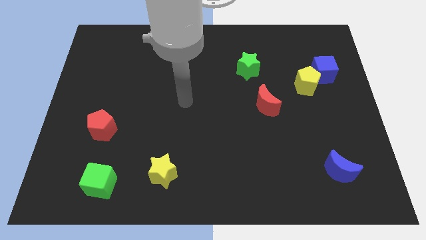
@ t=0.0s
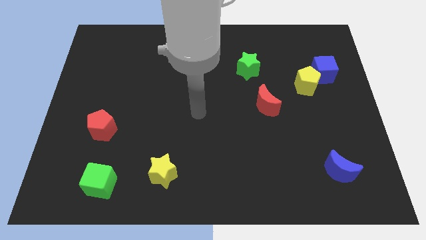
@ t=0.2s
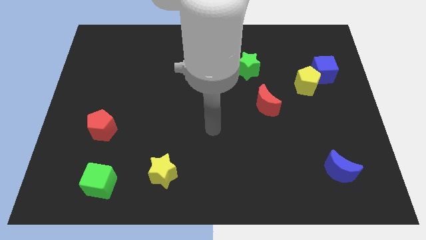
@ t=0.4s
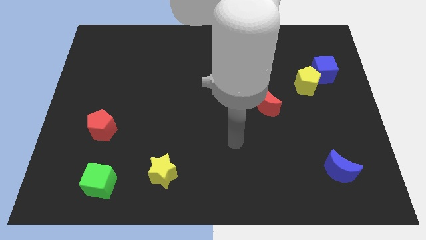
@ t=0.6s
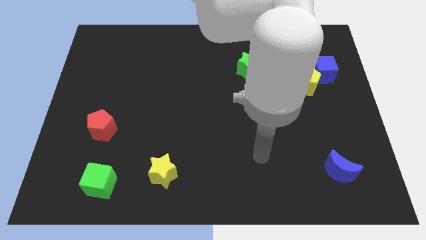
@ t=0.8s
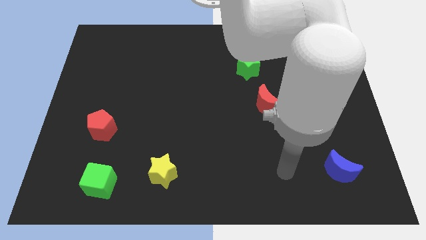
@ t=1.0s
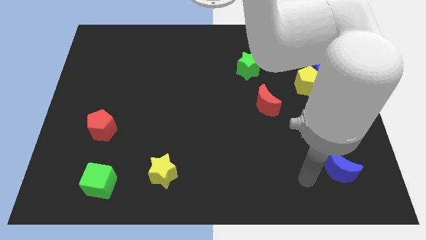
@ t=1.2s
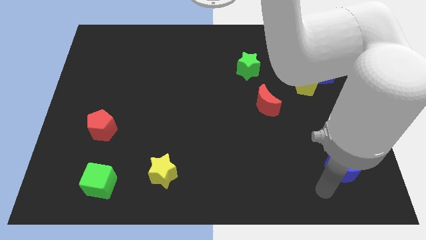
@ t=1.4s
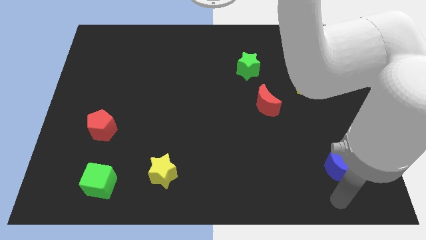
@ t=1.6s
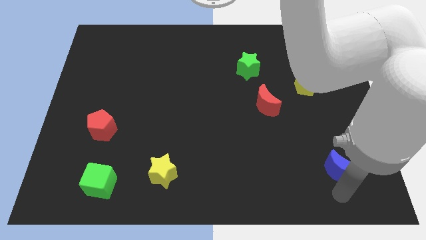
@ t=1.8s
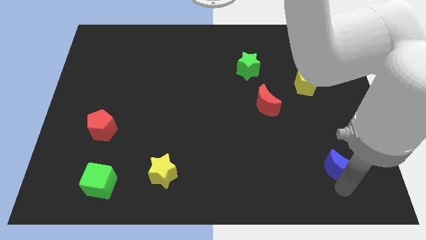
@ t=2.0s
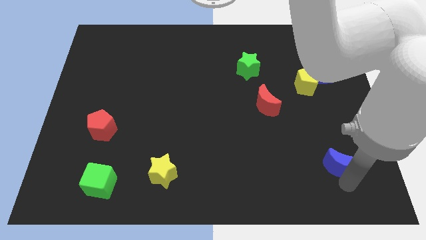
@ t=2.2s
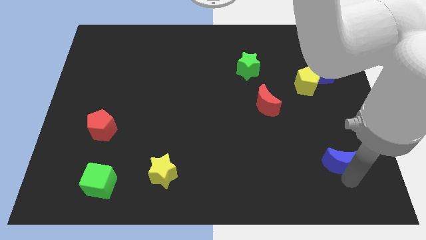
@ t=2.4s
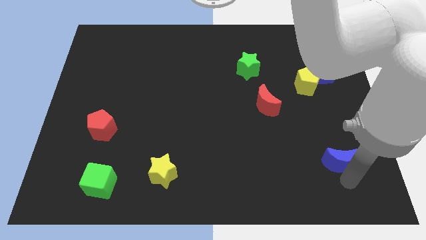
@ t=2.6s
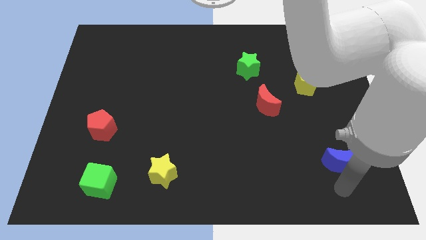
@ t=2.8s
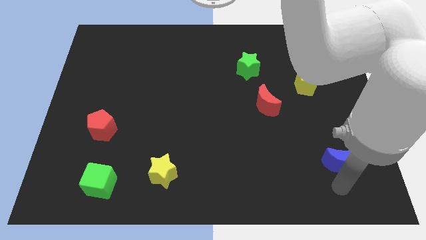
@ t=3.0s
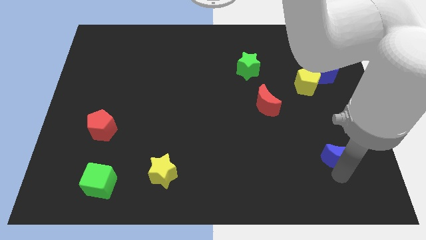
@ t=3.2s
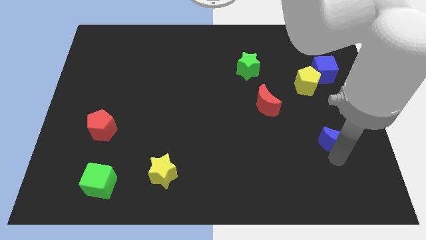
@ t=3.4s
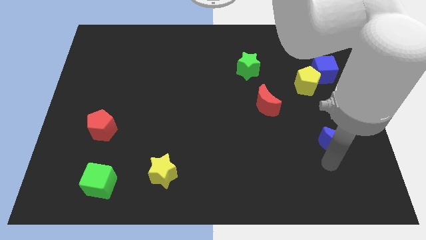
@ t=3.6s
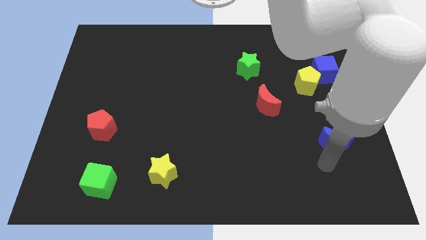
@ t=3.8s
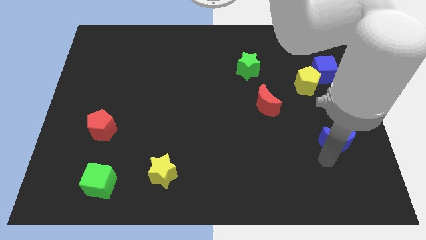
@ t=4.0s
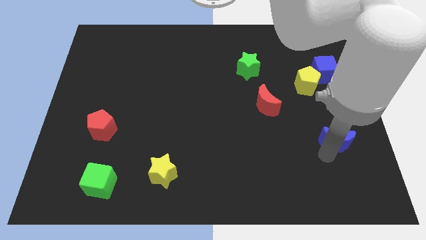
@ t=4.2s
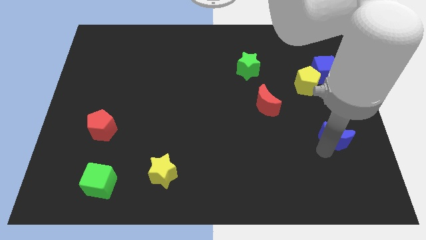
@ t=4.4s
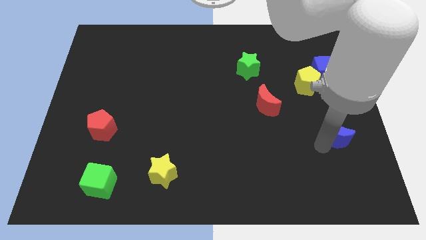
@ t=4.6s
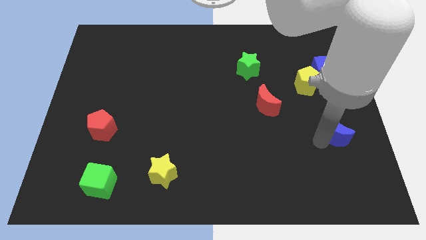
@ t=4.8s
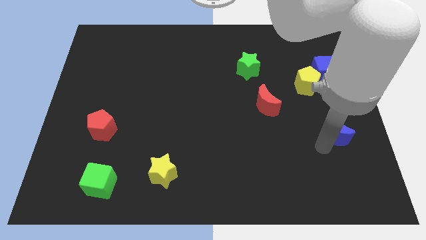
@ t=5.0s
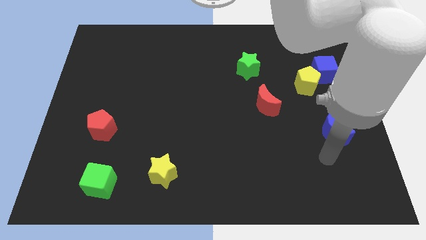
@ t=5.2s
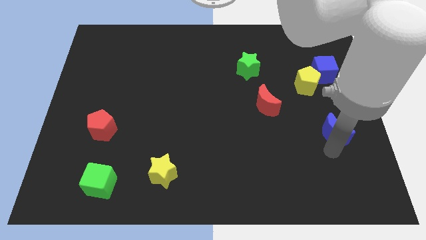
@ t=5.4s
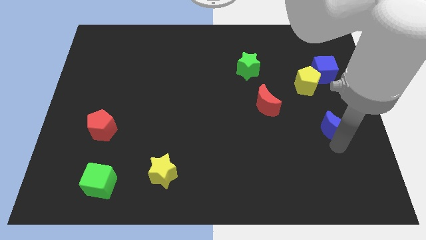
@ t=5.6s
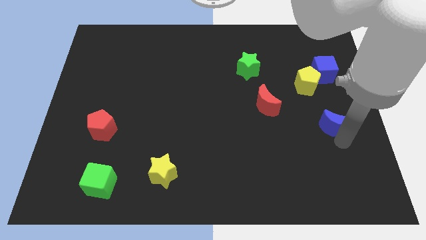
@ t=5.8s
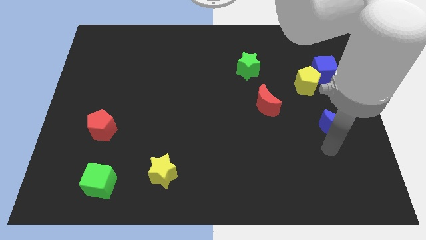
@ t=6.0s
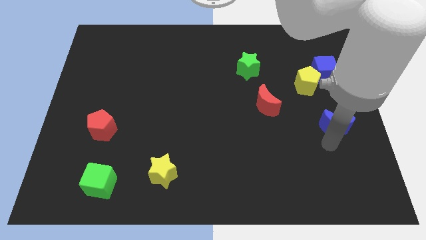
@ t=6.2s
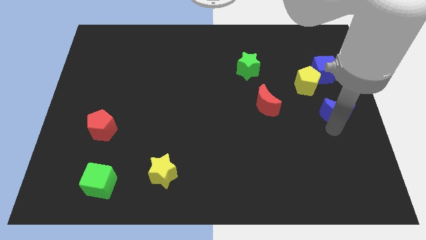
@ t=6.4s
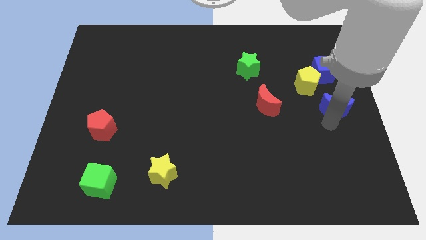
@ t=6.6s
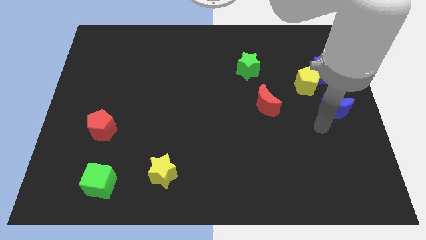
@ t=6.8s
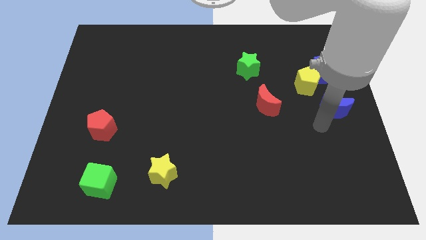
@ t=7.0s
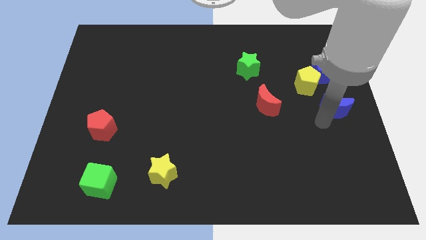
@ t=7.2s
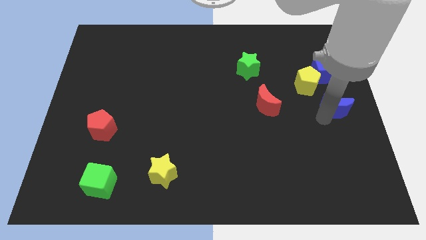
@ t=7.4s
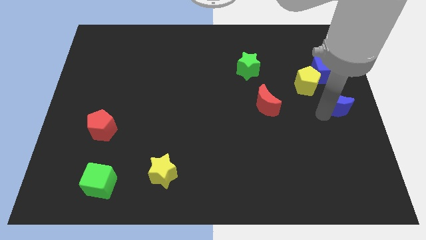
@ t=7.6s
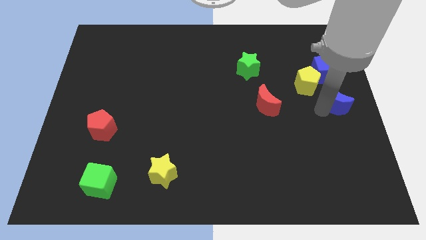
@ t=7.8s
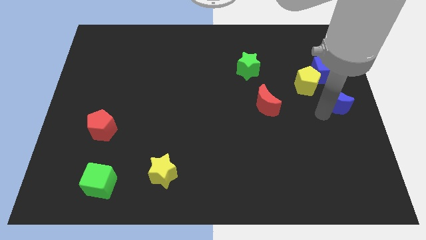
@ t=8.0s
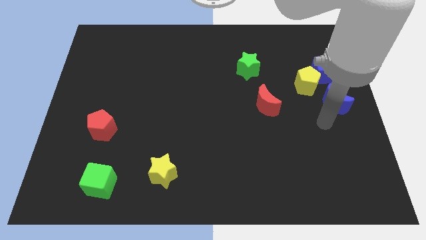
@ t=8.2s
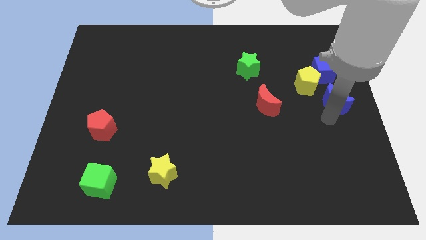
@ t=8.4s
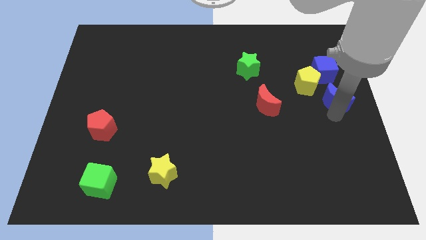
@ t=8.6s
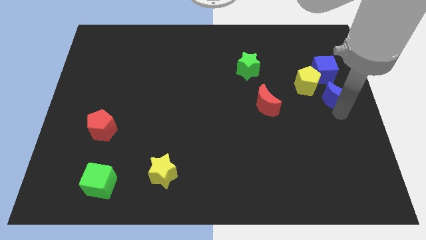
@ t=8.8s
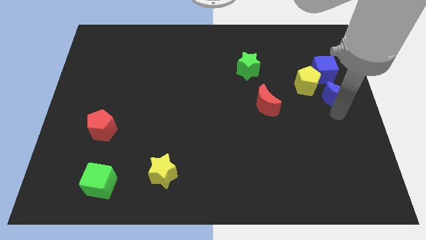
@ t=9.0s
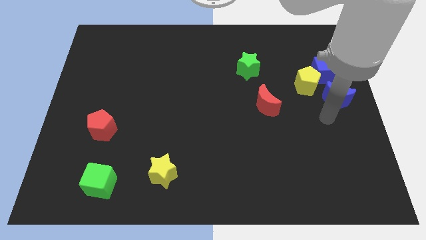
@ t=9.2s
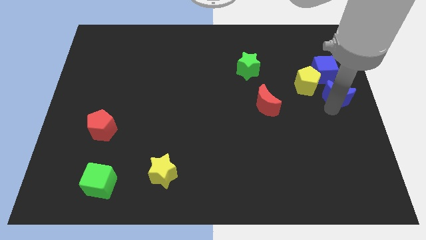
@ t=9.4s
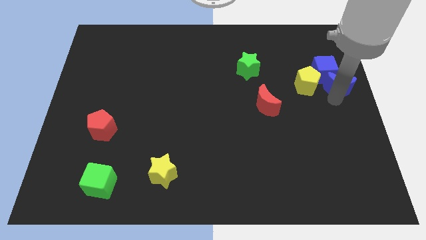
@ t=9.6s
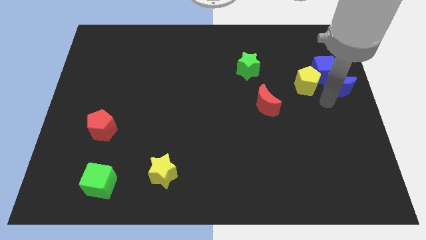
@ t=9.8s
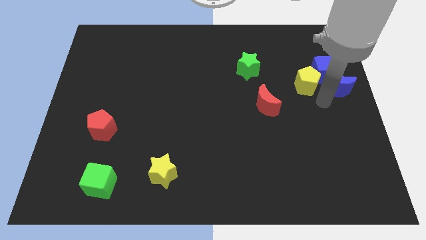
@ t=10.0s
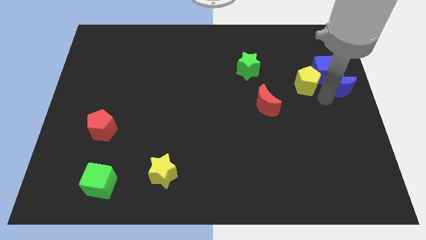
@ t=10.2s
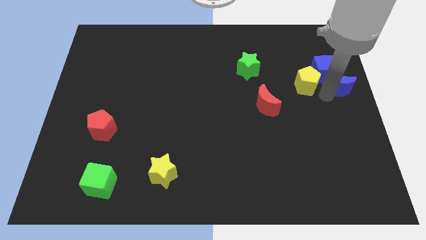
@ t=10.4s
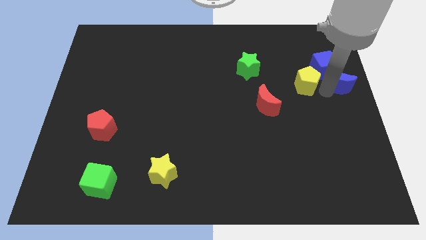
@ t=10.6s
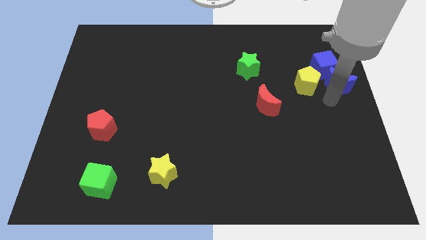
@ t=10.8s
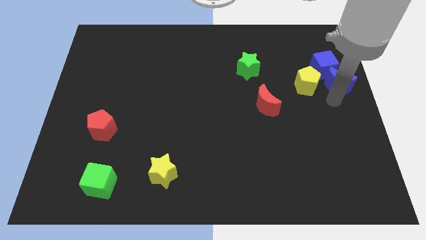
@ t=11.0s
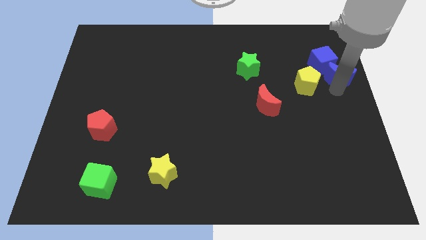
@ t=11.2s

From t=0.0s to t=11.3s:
slide the blue moon to the top right of the yellow pentagon

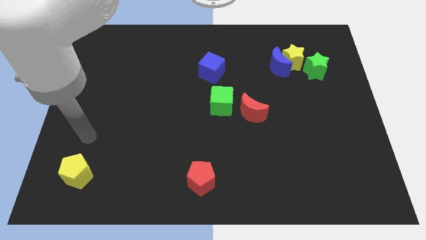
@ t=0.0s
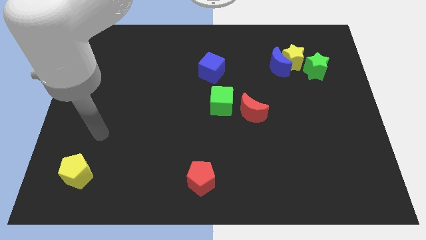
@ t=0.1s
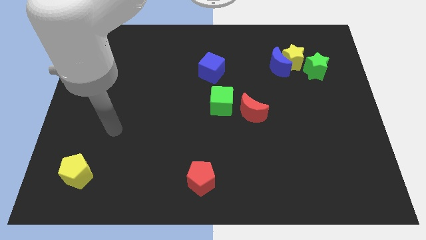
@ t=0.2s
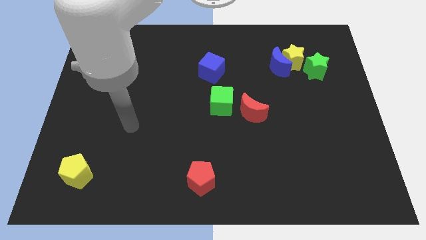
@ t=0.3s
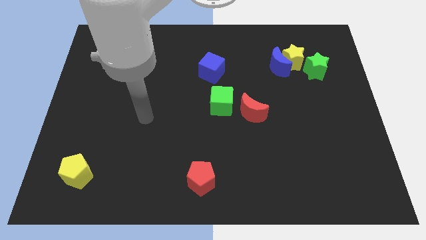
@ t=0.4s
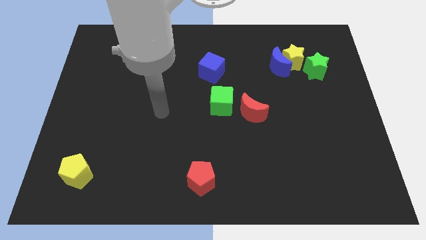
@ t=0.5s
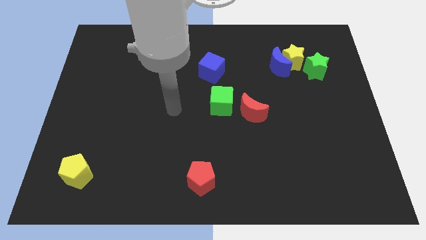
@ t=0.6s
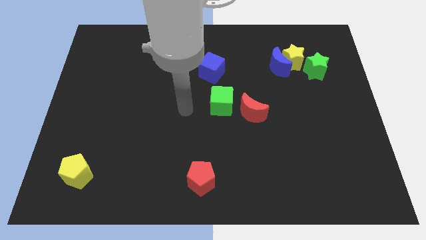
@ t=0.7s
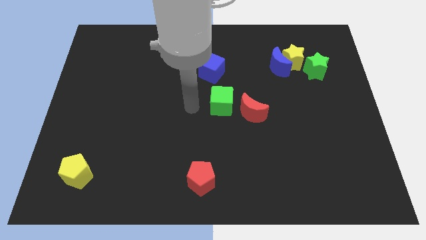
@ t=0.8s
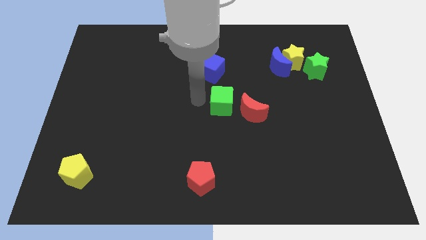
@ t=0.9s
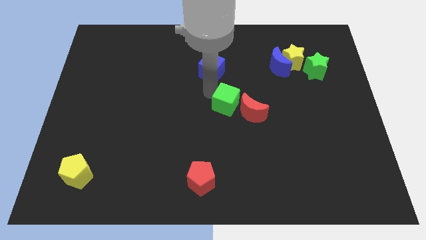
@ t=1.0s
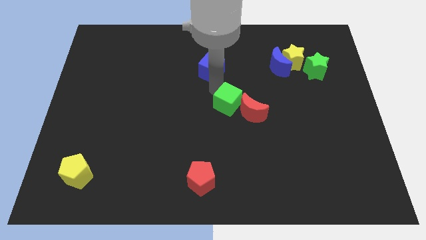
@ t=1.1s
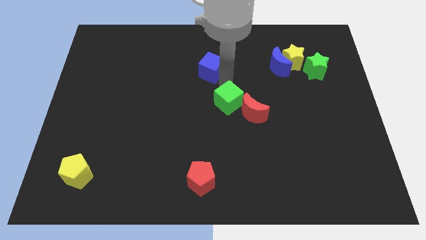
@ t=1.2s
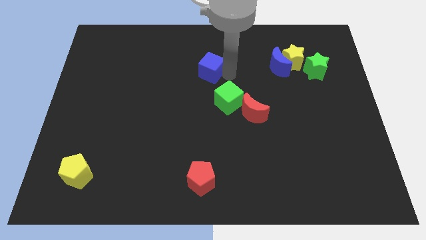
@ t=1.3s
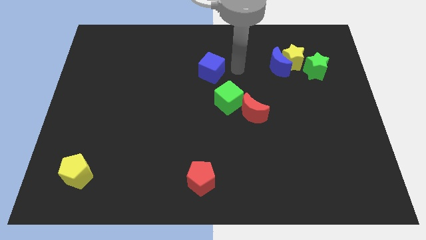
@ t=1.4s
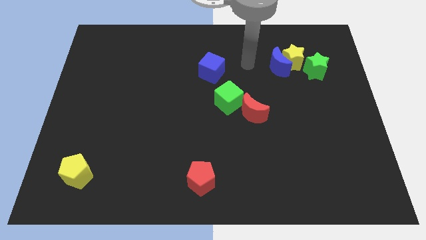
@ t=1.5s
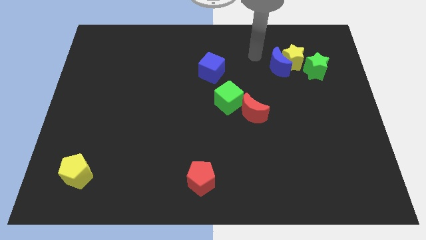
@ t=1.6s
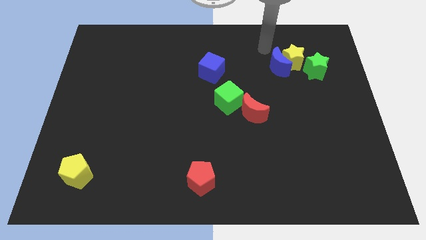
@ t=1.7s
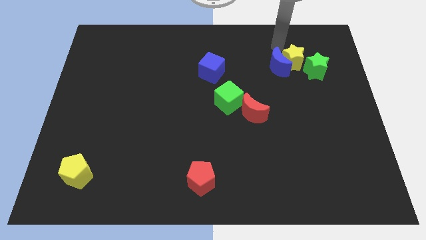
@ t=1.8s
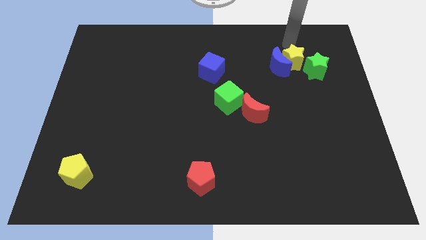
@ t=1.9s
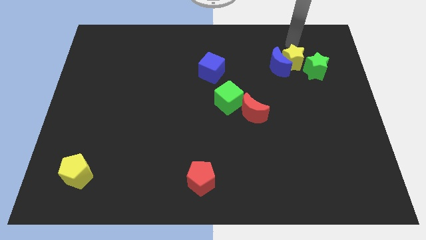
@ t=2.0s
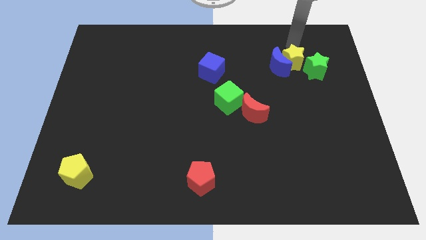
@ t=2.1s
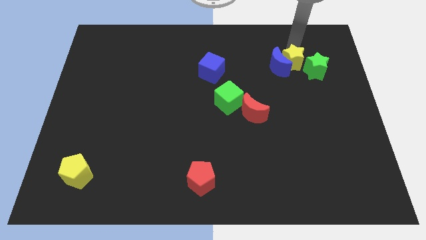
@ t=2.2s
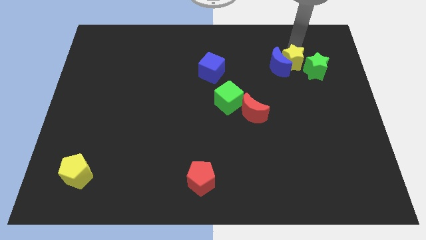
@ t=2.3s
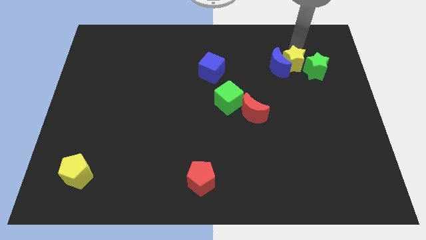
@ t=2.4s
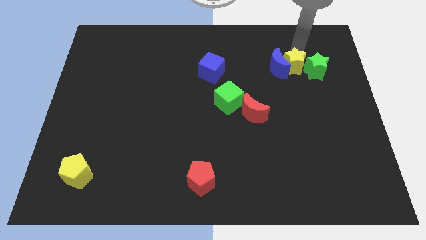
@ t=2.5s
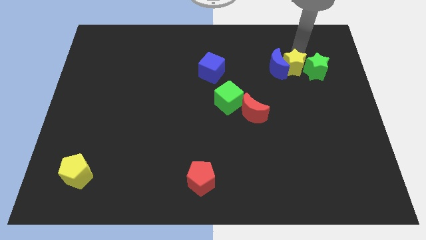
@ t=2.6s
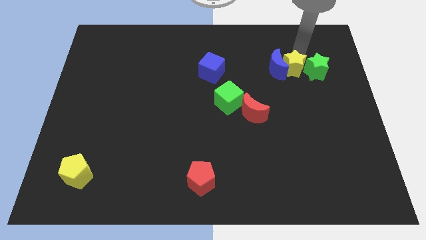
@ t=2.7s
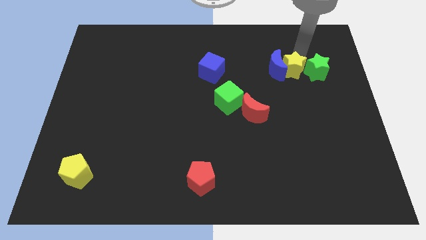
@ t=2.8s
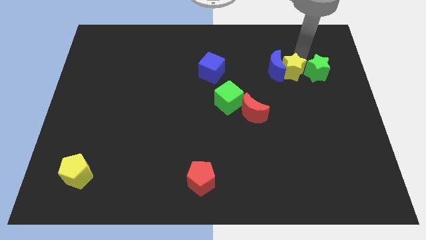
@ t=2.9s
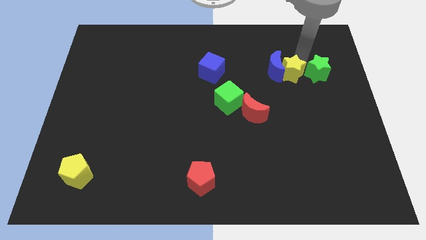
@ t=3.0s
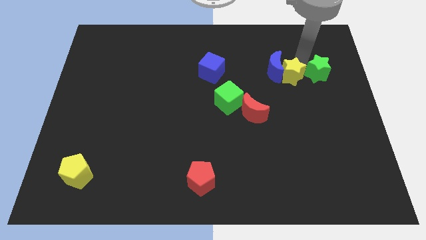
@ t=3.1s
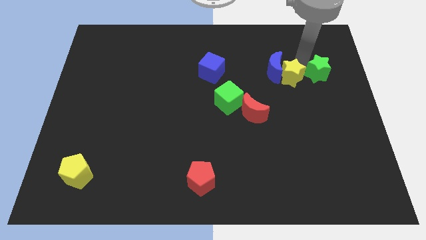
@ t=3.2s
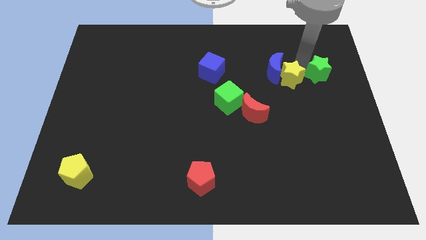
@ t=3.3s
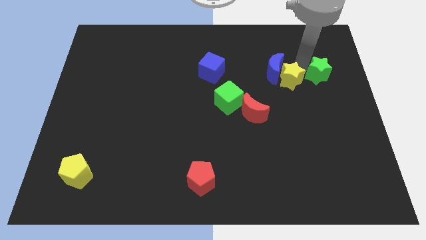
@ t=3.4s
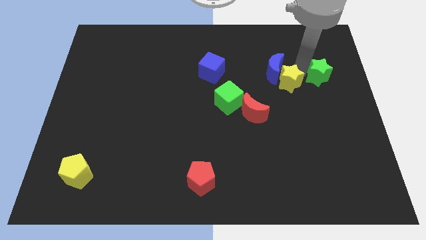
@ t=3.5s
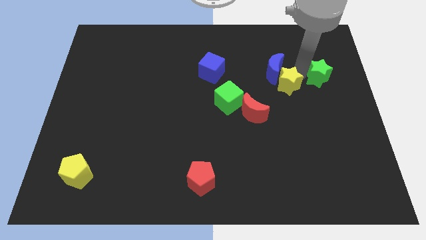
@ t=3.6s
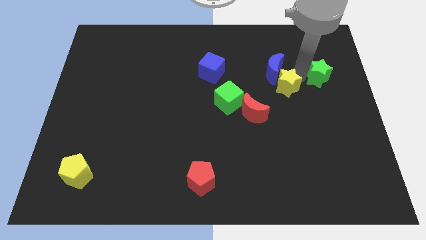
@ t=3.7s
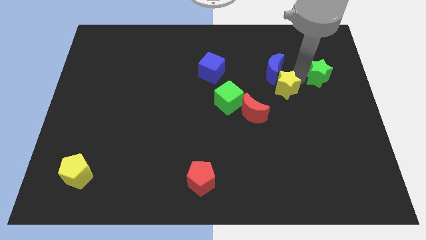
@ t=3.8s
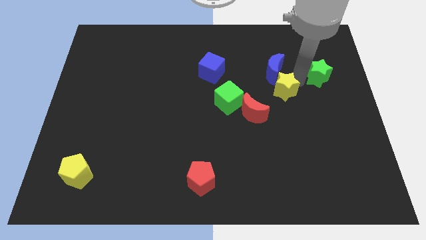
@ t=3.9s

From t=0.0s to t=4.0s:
slide the yellow star to the right of the green cube
